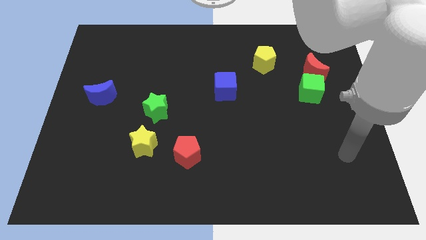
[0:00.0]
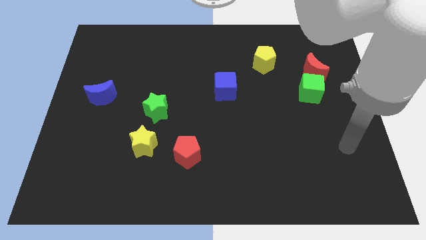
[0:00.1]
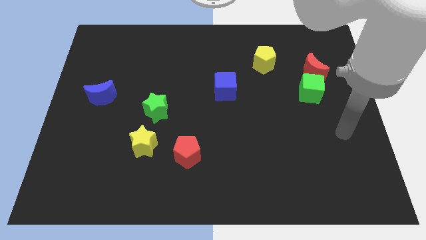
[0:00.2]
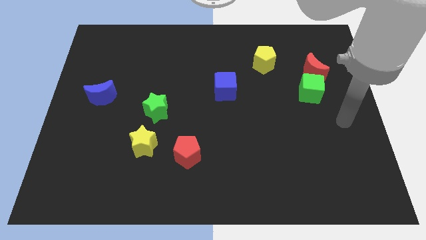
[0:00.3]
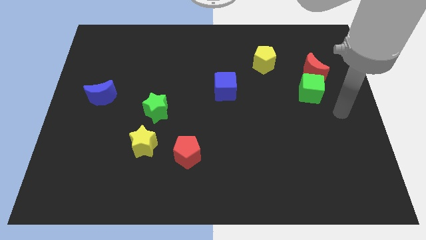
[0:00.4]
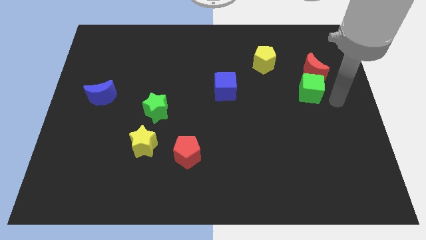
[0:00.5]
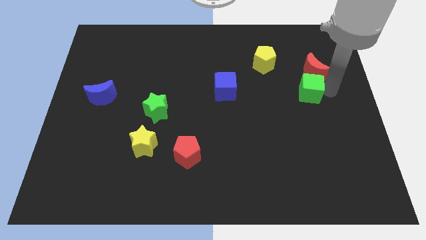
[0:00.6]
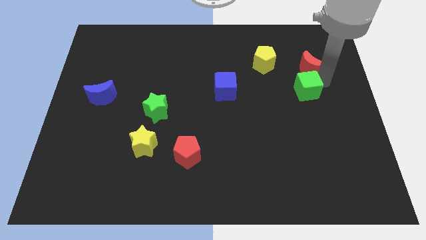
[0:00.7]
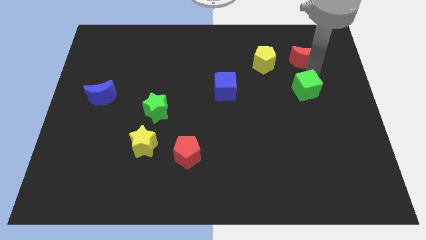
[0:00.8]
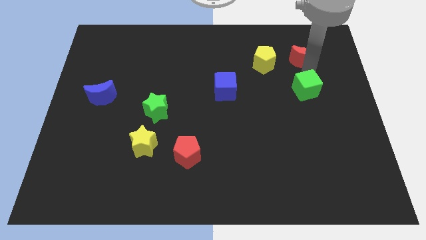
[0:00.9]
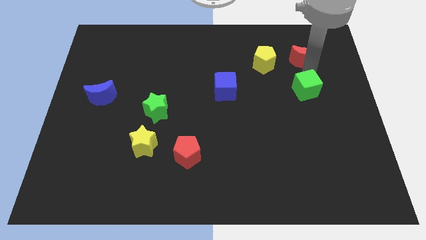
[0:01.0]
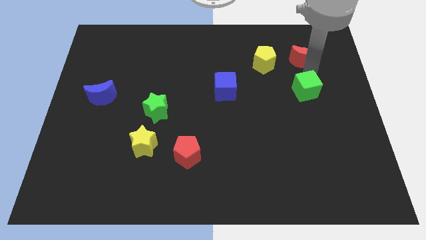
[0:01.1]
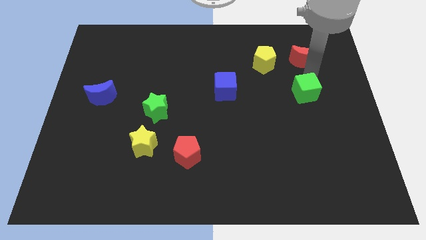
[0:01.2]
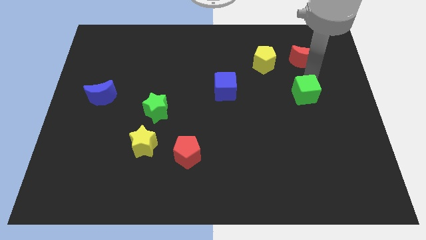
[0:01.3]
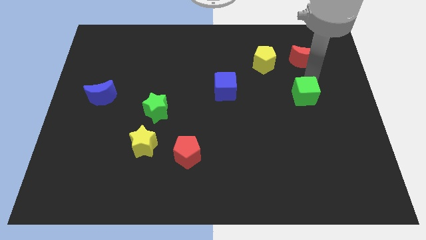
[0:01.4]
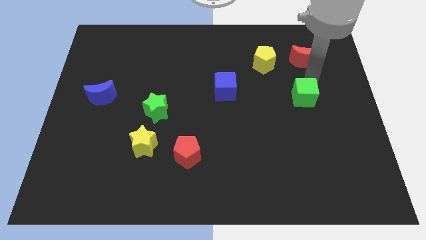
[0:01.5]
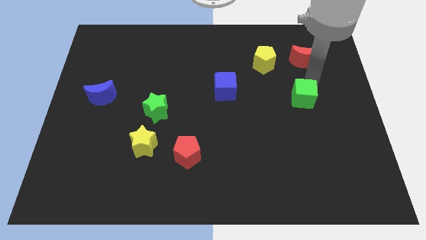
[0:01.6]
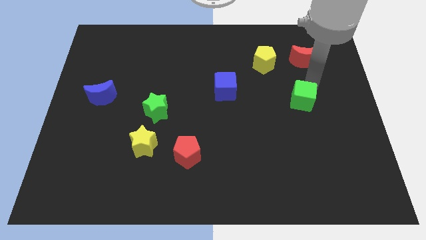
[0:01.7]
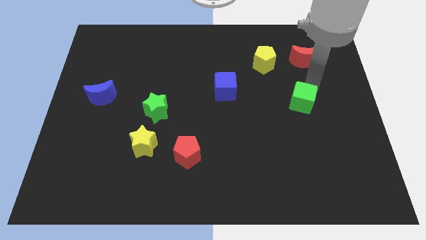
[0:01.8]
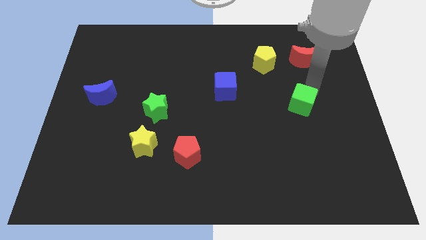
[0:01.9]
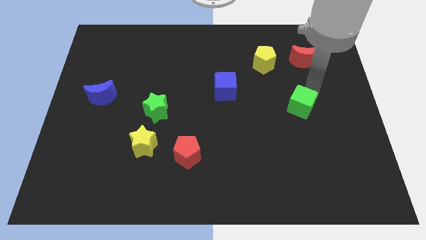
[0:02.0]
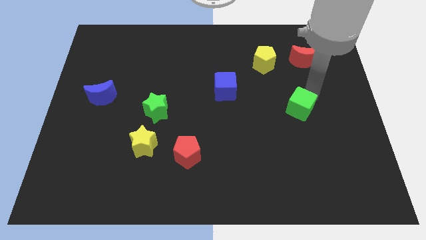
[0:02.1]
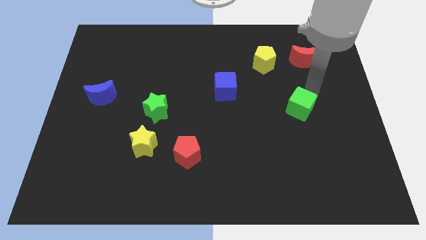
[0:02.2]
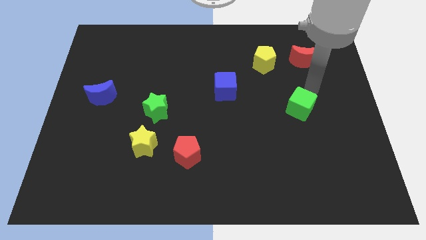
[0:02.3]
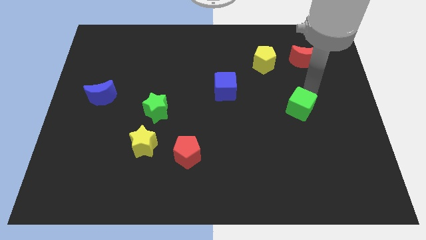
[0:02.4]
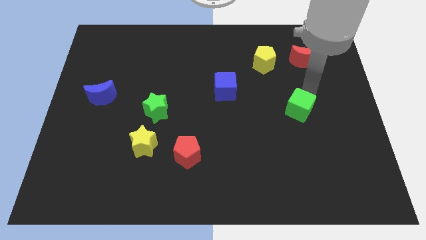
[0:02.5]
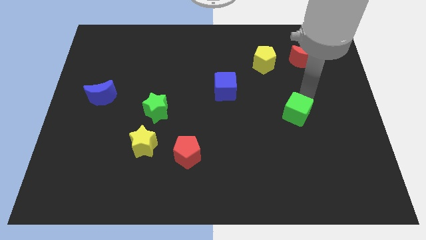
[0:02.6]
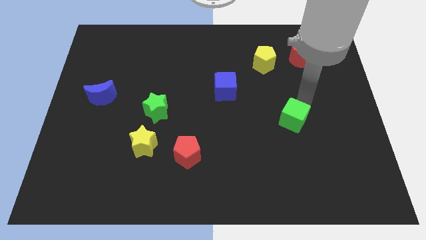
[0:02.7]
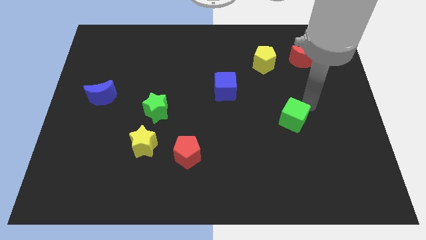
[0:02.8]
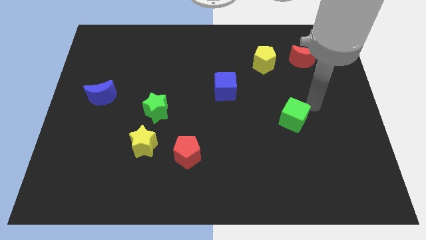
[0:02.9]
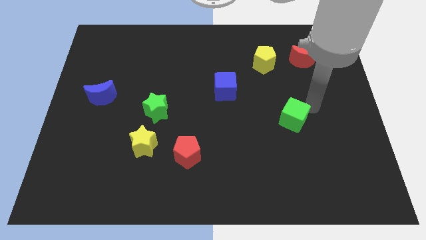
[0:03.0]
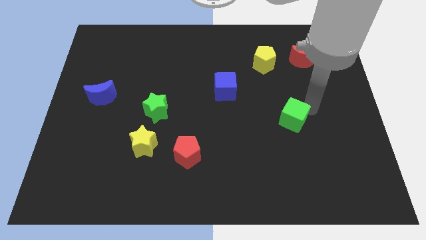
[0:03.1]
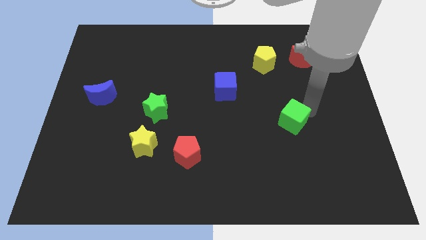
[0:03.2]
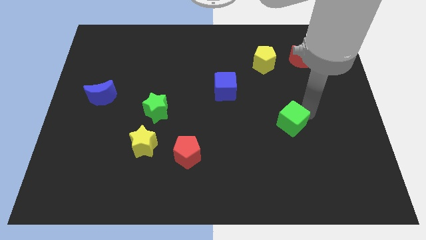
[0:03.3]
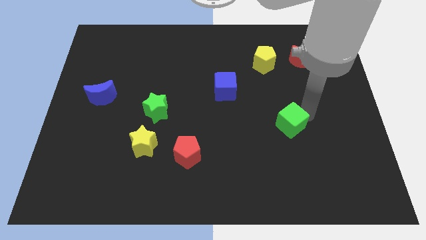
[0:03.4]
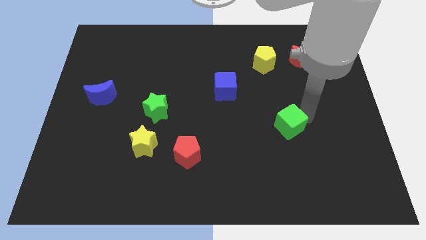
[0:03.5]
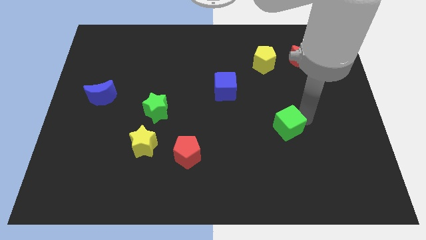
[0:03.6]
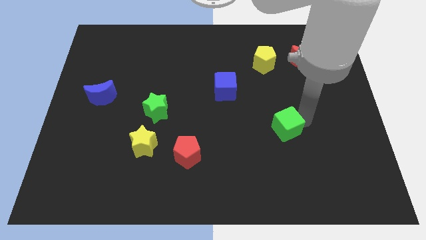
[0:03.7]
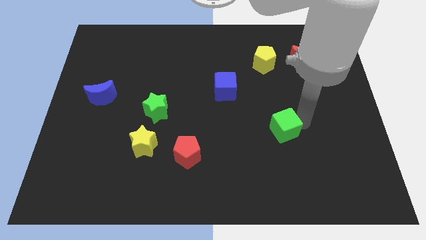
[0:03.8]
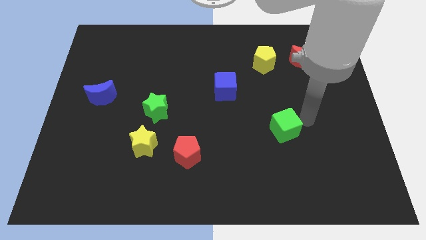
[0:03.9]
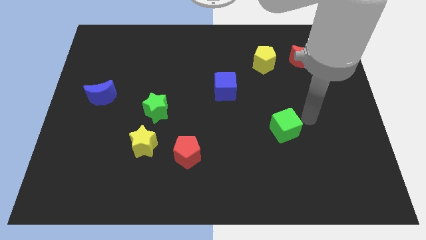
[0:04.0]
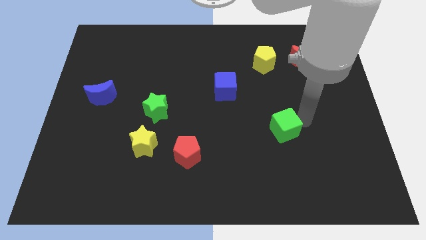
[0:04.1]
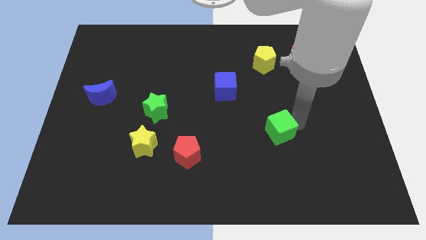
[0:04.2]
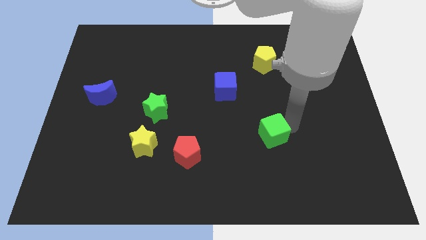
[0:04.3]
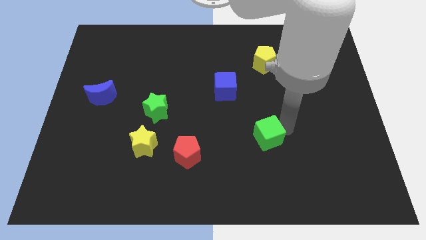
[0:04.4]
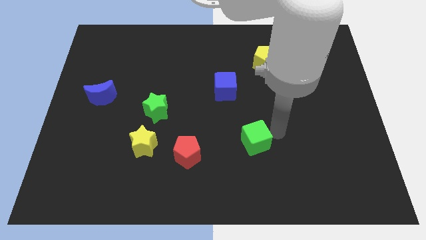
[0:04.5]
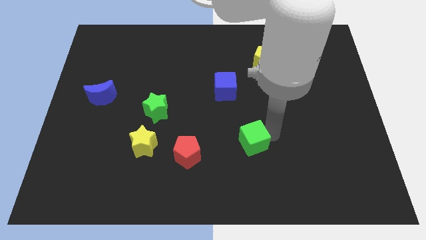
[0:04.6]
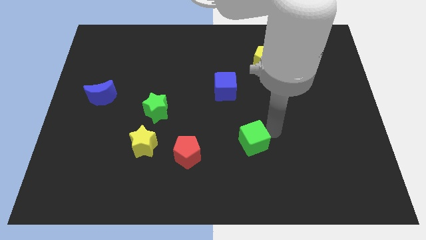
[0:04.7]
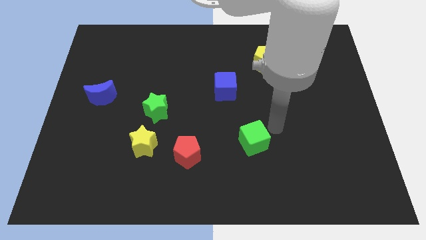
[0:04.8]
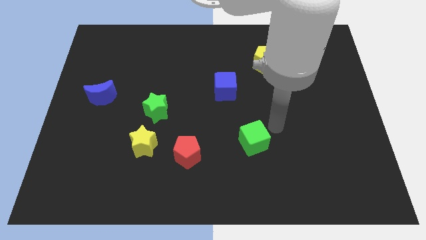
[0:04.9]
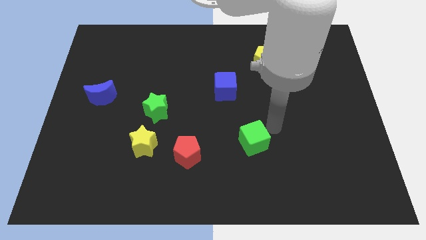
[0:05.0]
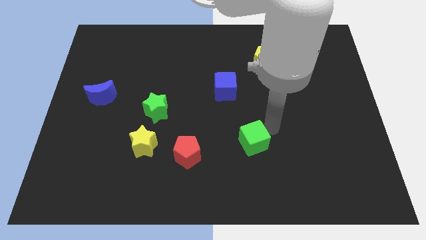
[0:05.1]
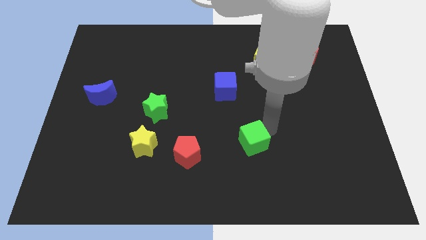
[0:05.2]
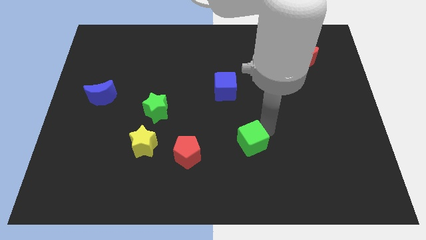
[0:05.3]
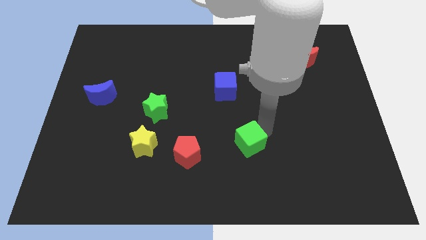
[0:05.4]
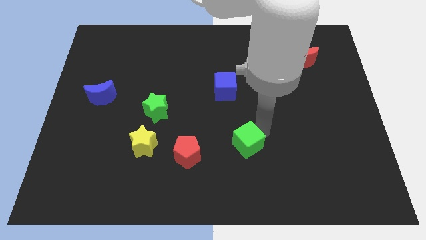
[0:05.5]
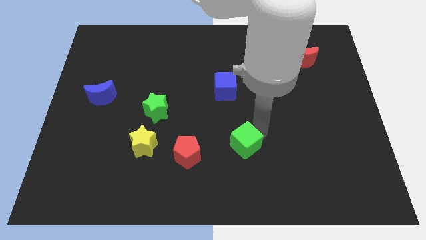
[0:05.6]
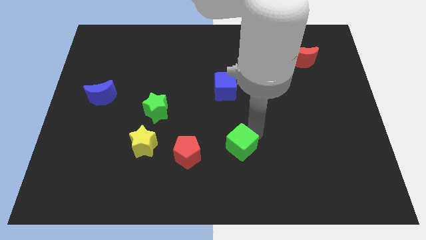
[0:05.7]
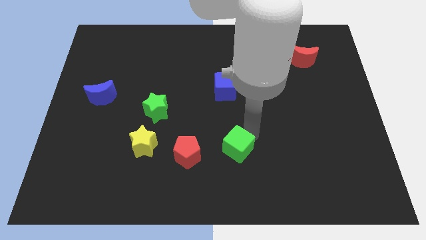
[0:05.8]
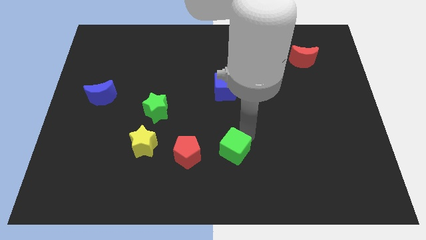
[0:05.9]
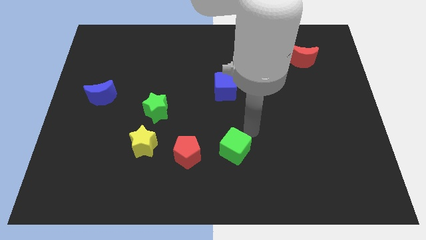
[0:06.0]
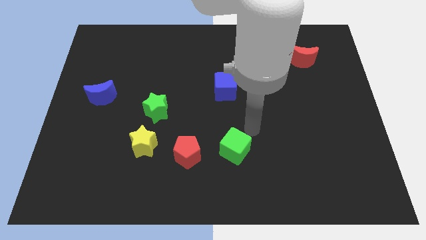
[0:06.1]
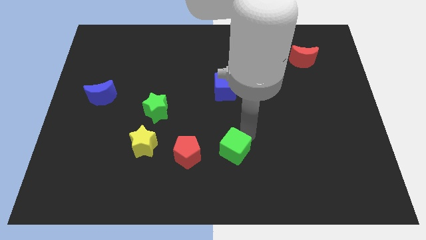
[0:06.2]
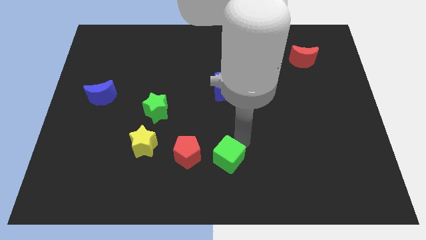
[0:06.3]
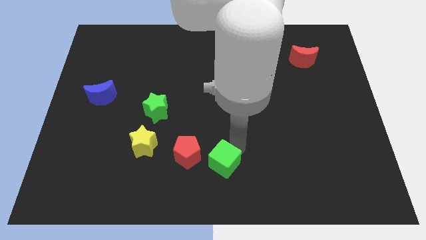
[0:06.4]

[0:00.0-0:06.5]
move the green cube to the bottom right of the red pentagon
